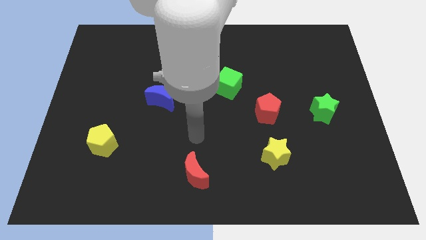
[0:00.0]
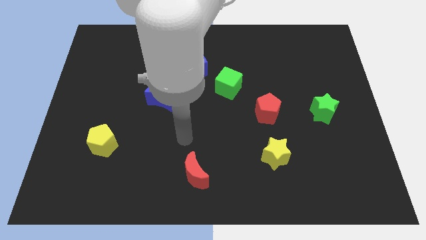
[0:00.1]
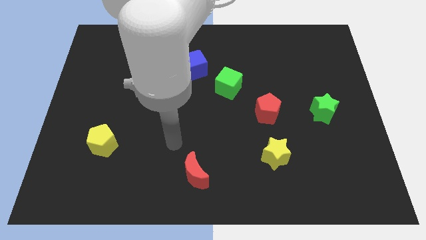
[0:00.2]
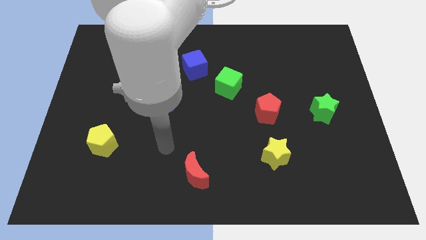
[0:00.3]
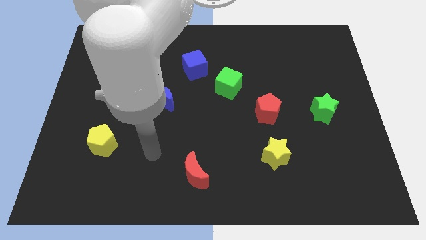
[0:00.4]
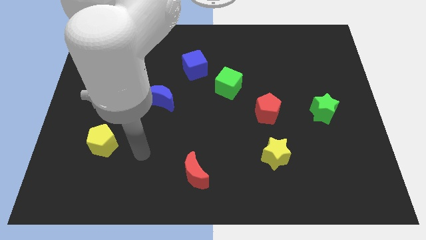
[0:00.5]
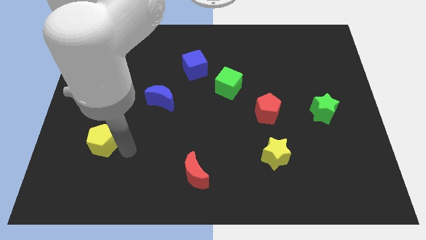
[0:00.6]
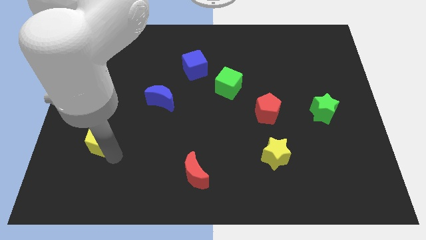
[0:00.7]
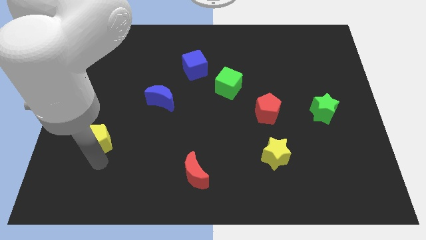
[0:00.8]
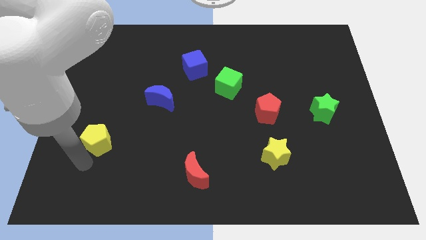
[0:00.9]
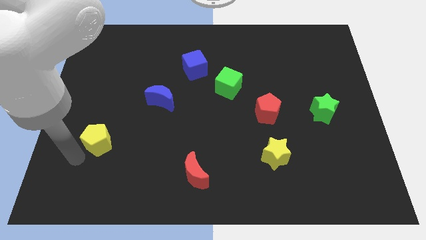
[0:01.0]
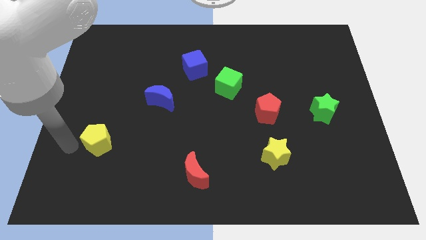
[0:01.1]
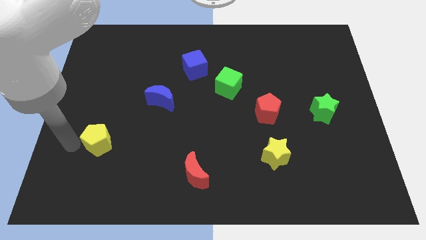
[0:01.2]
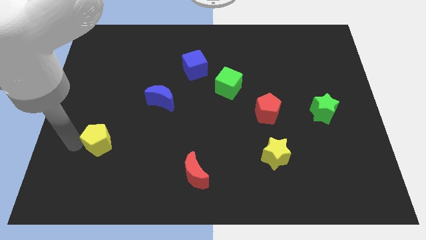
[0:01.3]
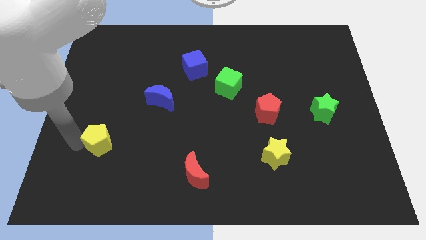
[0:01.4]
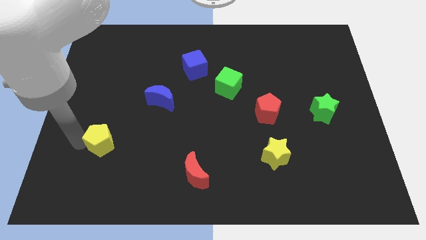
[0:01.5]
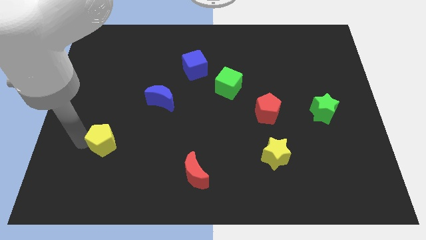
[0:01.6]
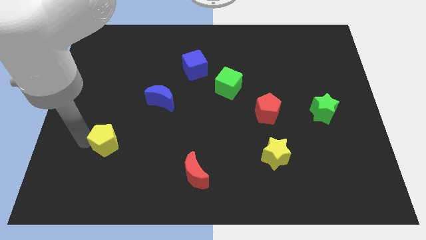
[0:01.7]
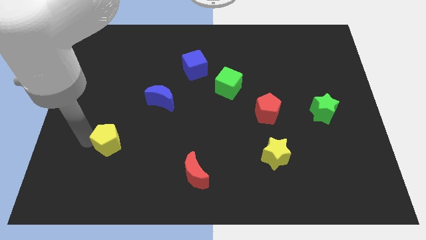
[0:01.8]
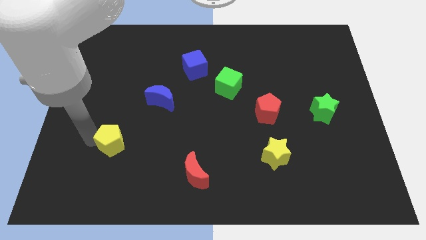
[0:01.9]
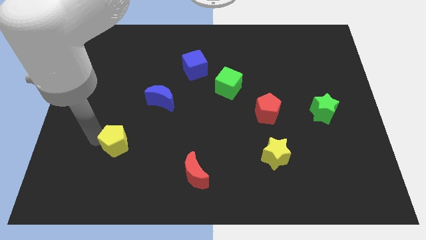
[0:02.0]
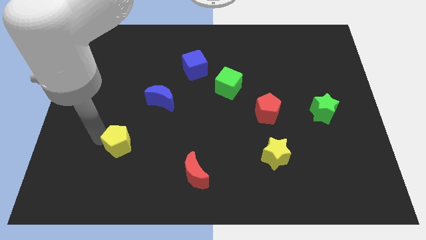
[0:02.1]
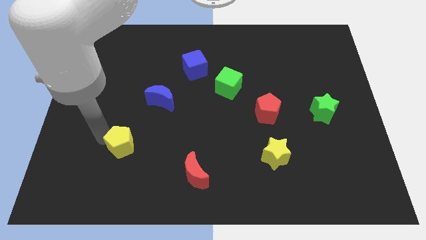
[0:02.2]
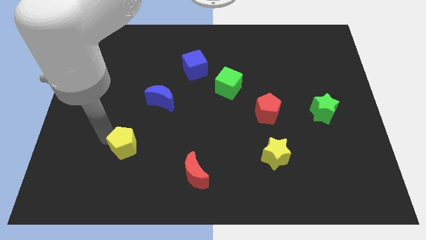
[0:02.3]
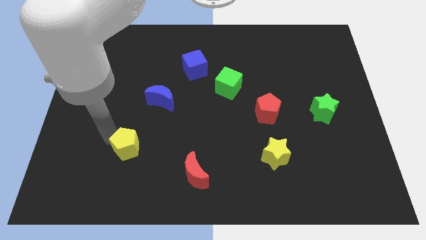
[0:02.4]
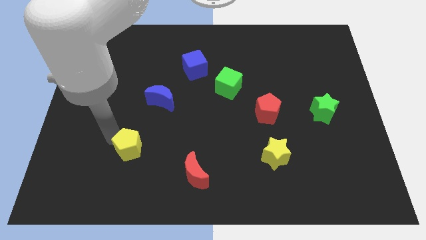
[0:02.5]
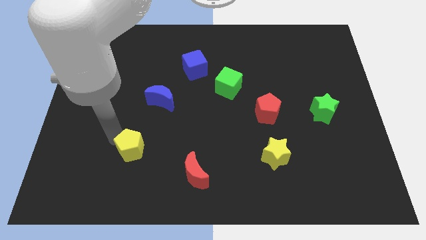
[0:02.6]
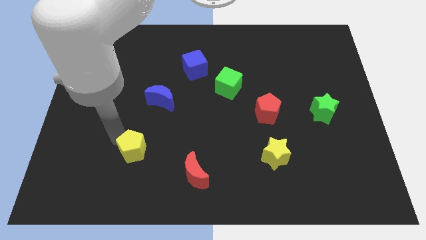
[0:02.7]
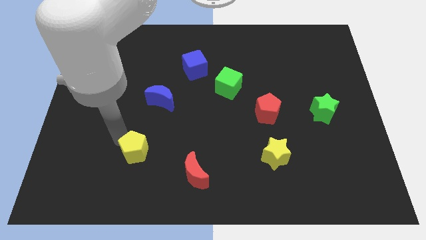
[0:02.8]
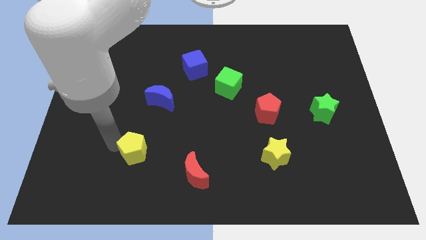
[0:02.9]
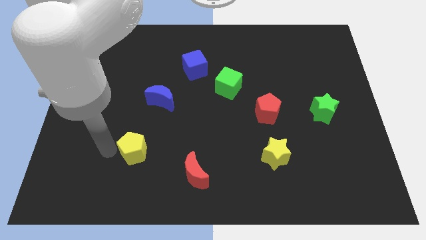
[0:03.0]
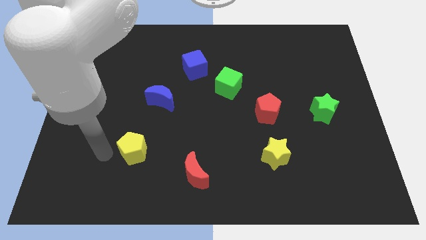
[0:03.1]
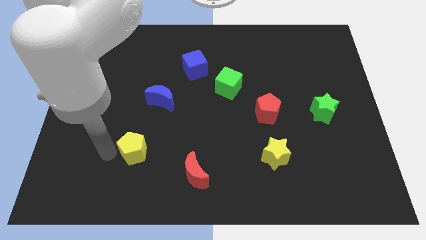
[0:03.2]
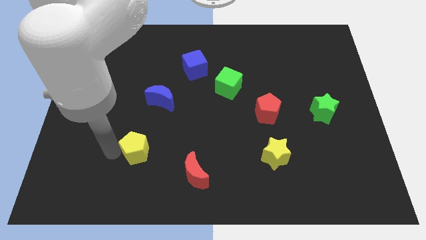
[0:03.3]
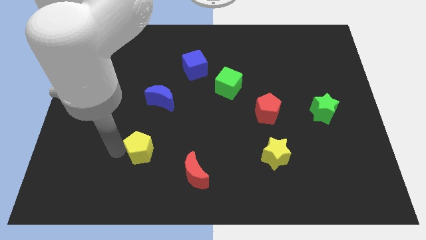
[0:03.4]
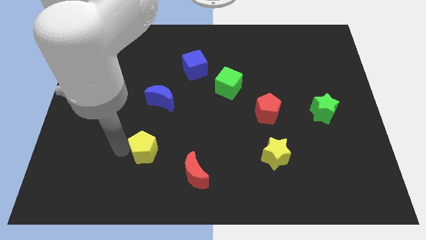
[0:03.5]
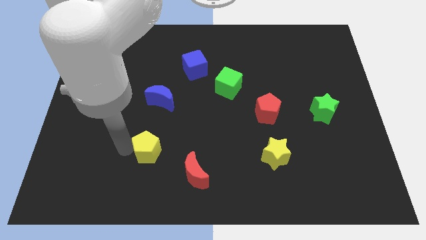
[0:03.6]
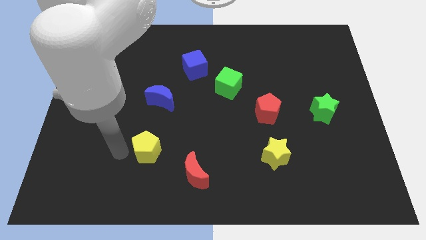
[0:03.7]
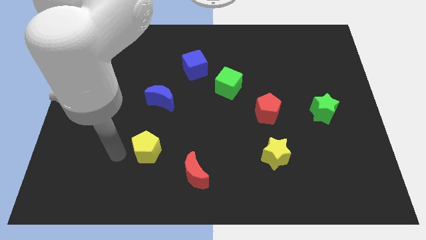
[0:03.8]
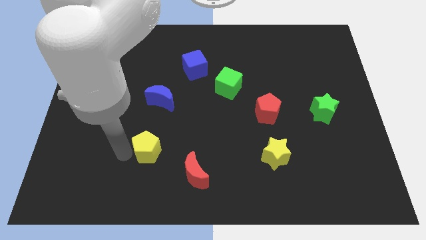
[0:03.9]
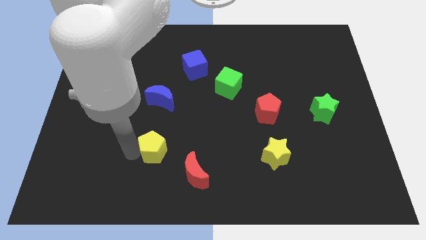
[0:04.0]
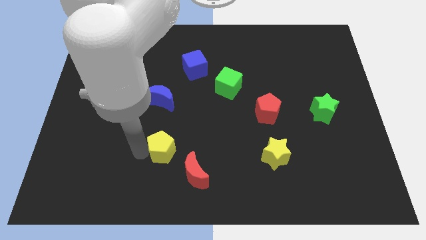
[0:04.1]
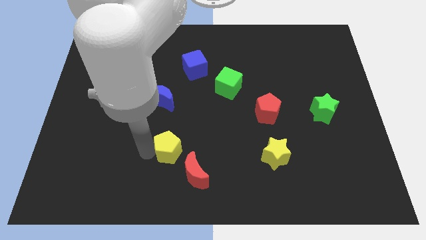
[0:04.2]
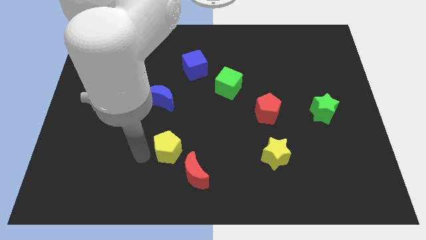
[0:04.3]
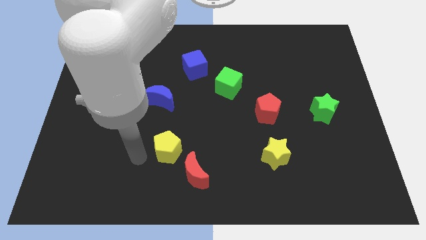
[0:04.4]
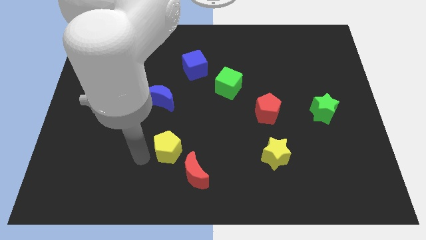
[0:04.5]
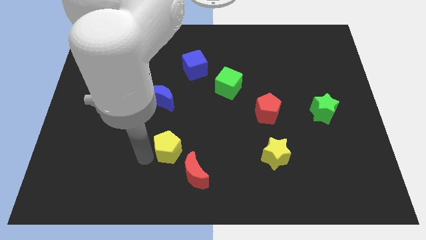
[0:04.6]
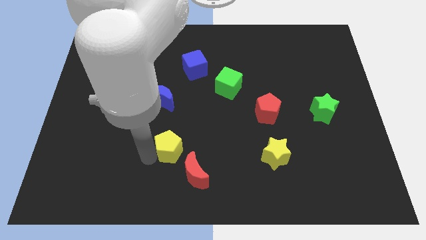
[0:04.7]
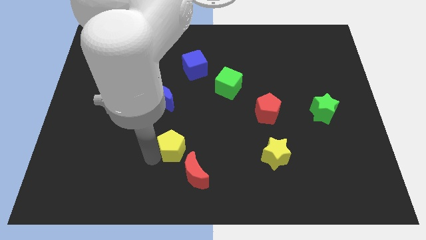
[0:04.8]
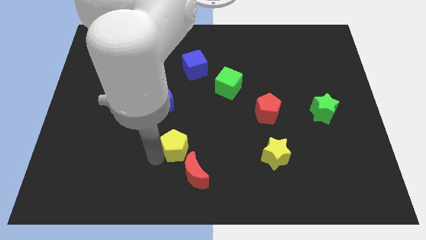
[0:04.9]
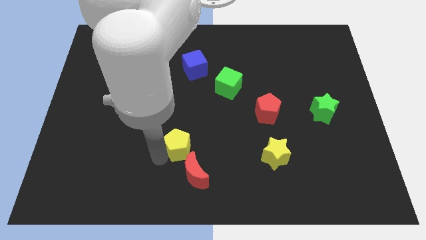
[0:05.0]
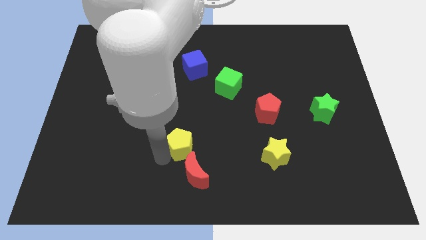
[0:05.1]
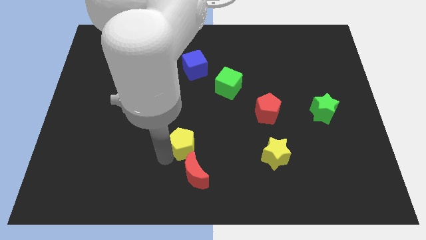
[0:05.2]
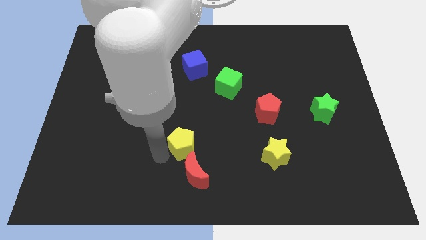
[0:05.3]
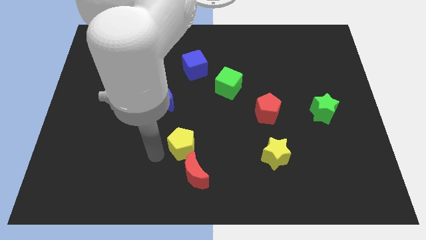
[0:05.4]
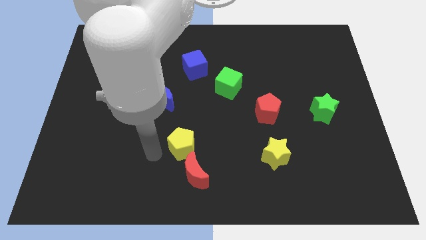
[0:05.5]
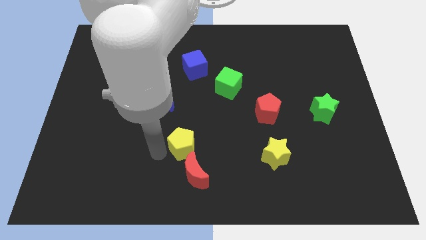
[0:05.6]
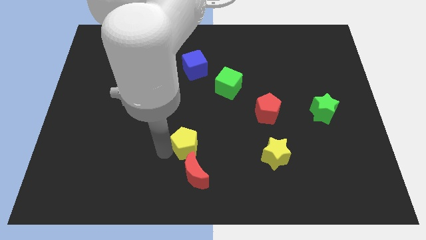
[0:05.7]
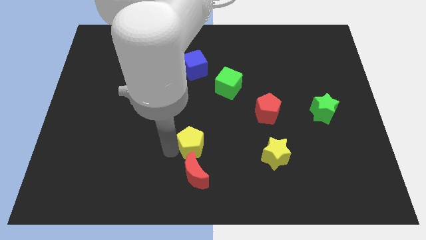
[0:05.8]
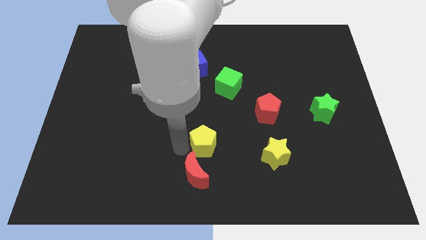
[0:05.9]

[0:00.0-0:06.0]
push the yellow pentagon to the right

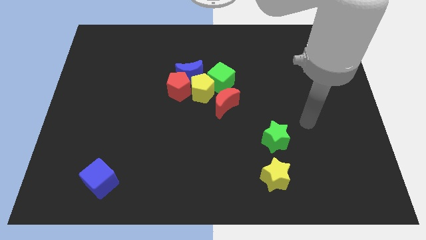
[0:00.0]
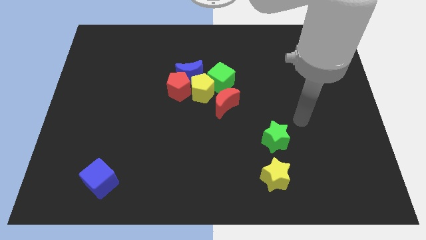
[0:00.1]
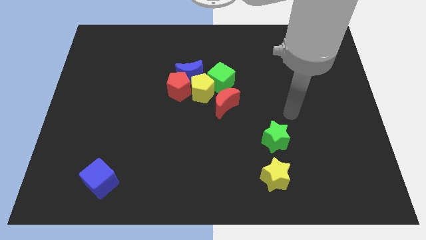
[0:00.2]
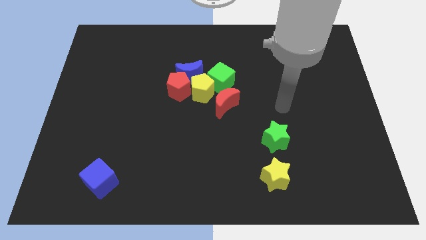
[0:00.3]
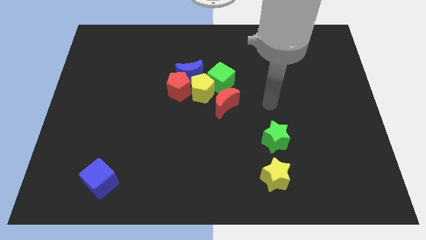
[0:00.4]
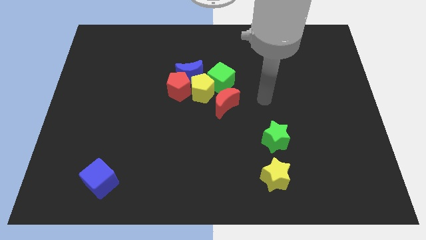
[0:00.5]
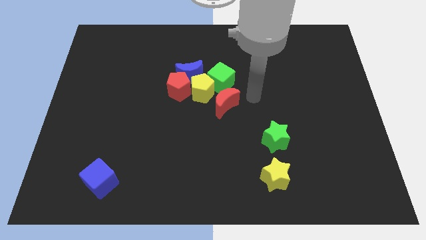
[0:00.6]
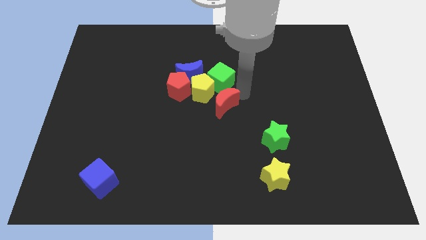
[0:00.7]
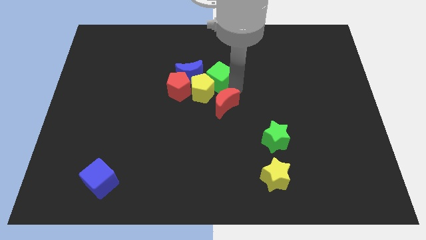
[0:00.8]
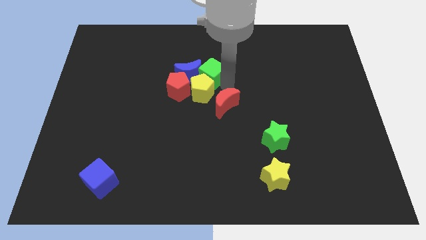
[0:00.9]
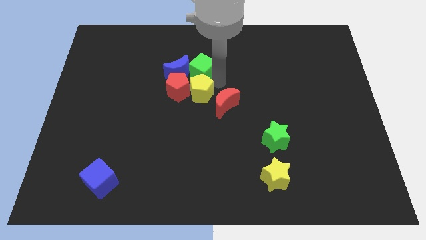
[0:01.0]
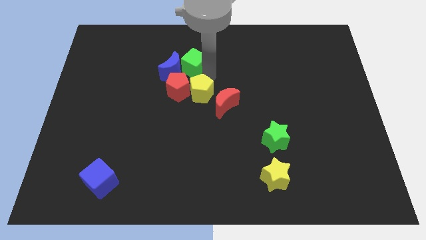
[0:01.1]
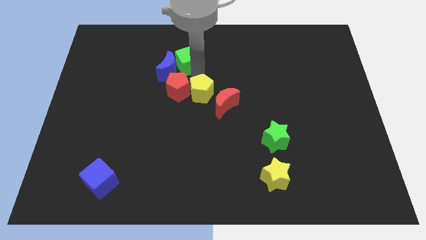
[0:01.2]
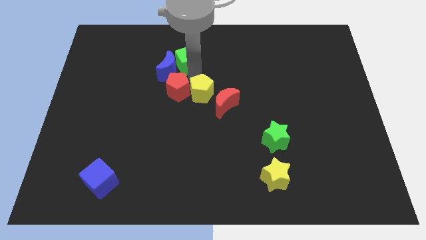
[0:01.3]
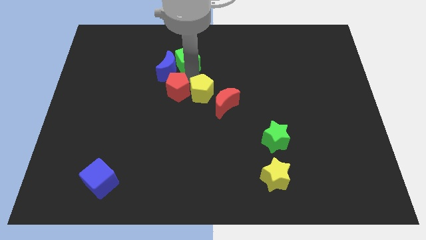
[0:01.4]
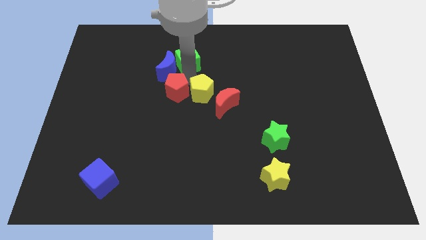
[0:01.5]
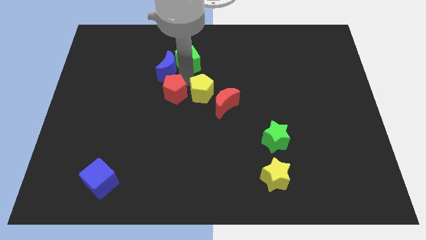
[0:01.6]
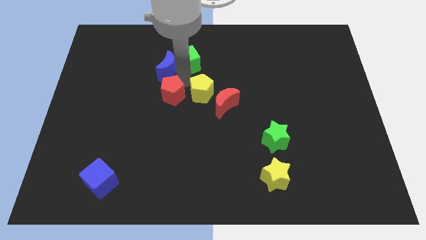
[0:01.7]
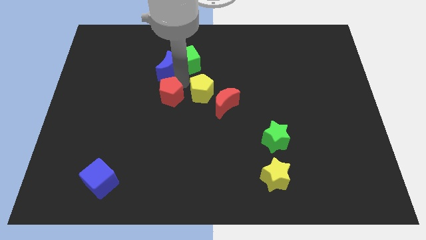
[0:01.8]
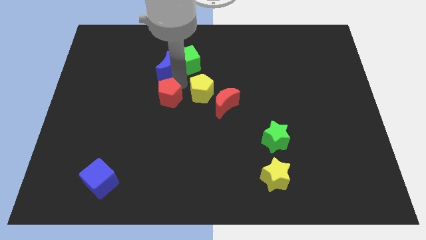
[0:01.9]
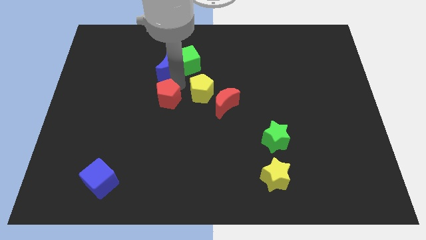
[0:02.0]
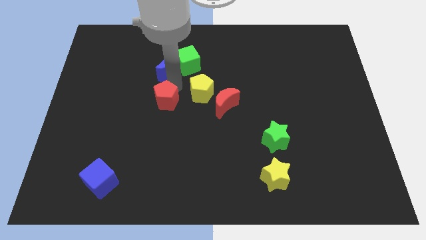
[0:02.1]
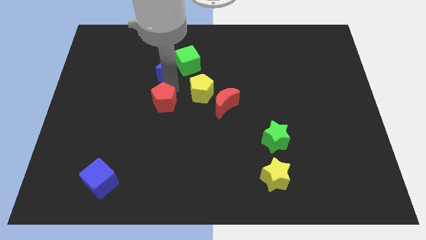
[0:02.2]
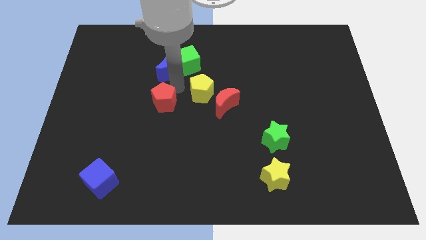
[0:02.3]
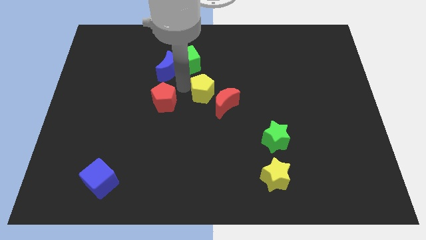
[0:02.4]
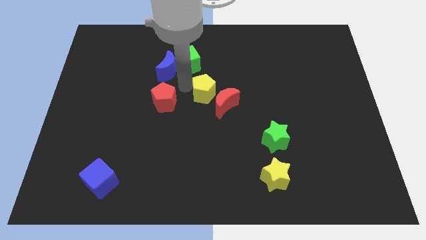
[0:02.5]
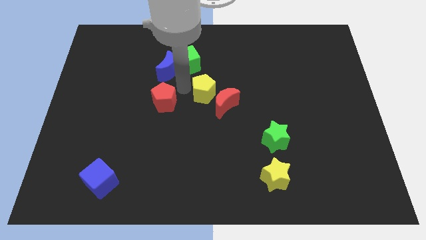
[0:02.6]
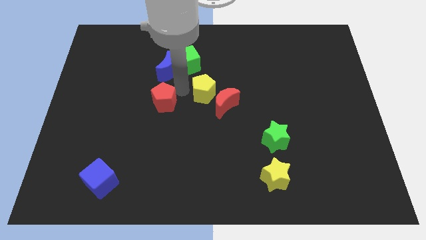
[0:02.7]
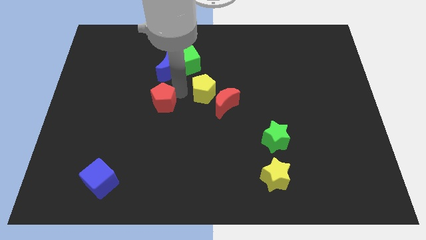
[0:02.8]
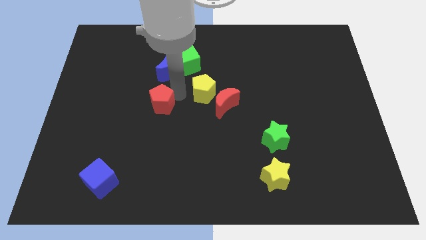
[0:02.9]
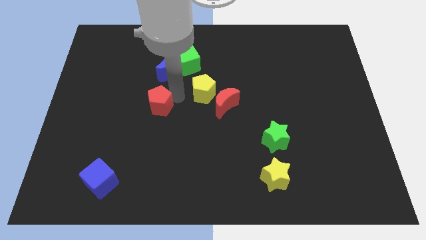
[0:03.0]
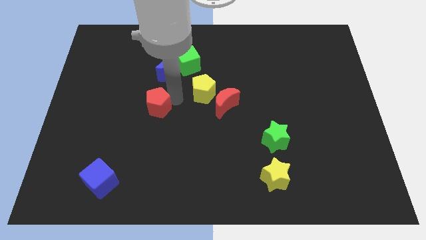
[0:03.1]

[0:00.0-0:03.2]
slightly push the red pentagon downwards and then left
